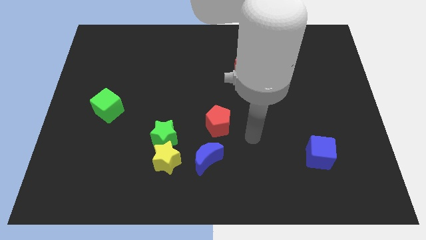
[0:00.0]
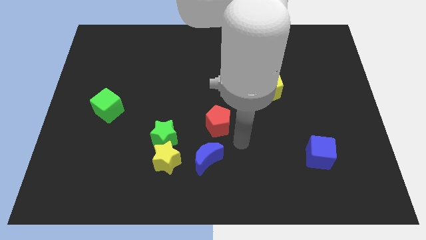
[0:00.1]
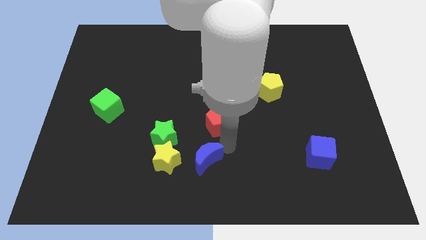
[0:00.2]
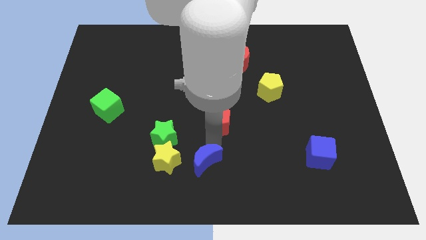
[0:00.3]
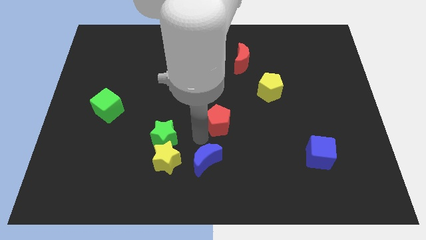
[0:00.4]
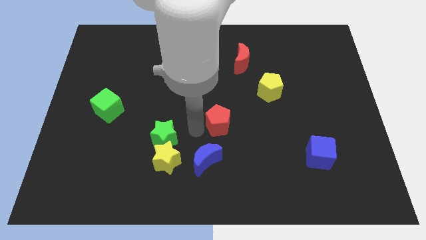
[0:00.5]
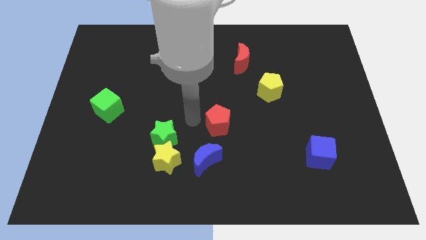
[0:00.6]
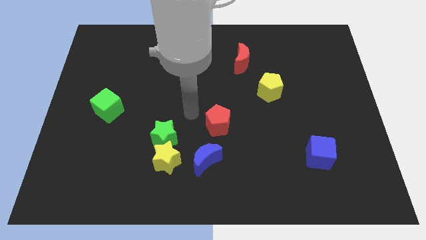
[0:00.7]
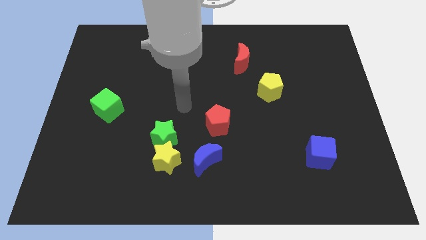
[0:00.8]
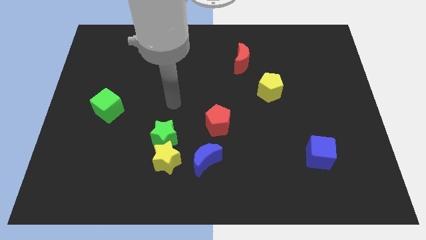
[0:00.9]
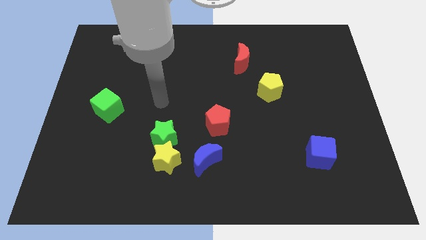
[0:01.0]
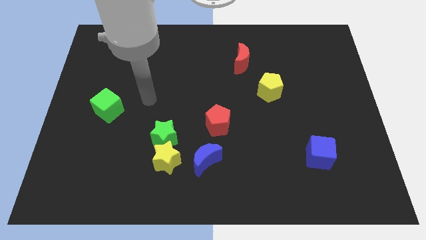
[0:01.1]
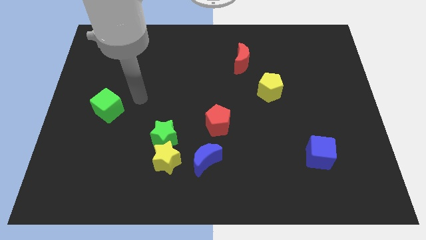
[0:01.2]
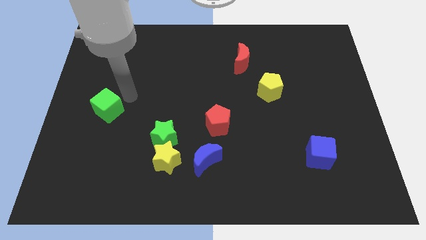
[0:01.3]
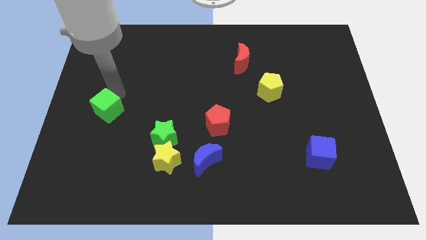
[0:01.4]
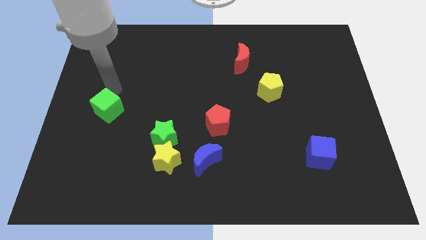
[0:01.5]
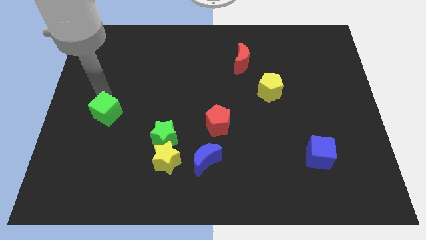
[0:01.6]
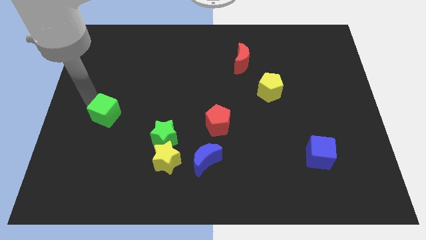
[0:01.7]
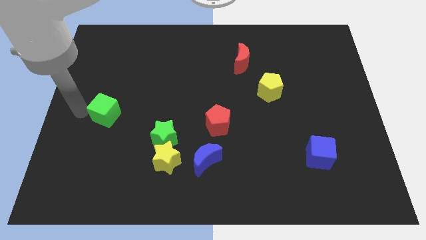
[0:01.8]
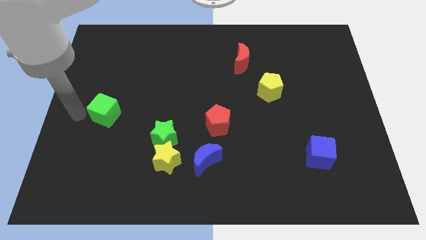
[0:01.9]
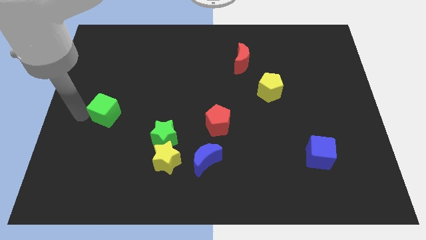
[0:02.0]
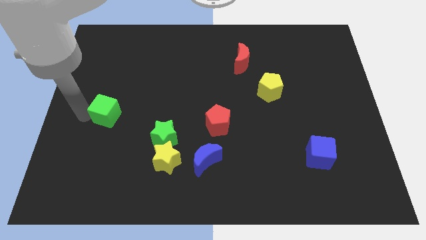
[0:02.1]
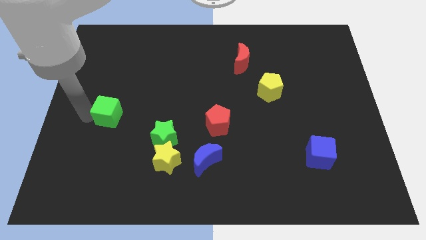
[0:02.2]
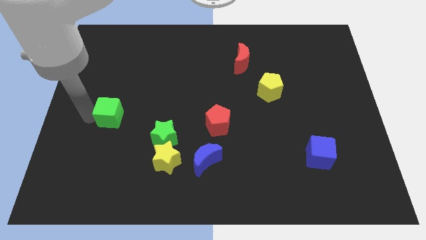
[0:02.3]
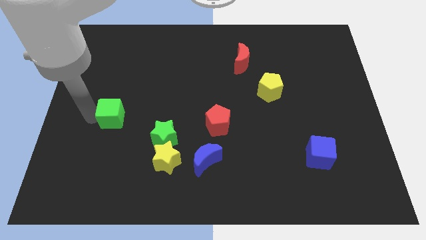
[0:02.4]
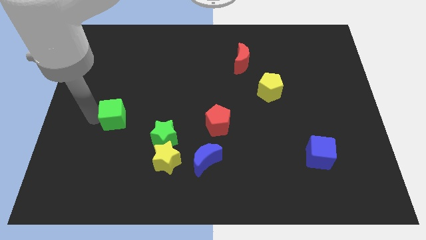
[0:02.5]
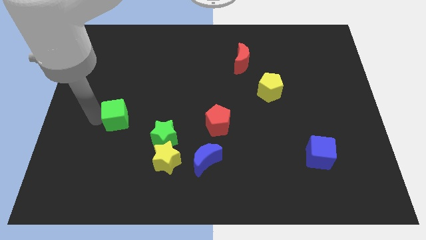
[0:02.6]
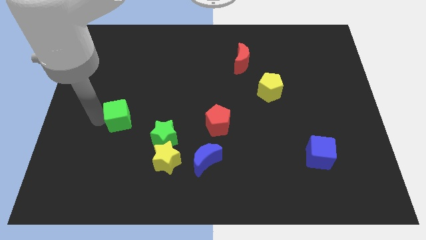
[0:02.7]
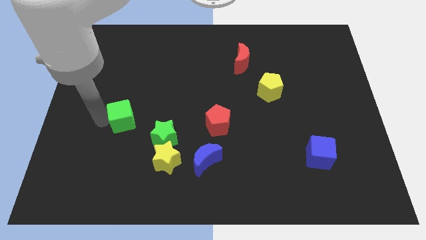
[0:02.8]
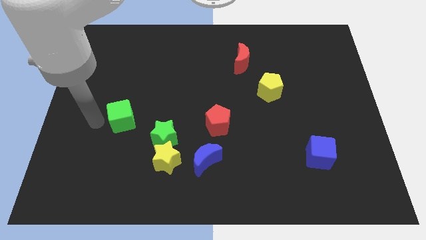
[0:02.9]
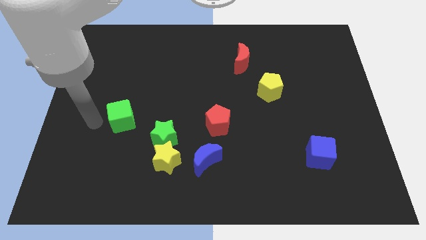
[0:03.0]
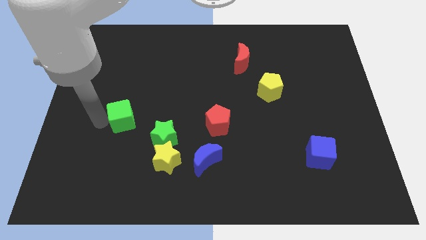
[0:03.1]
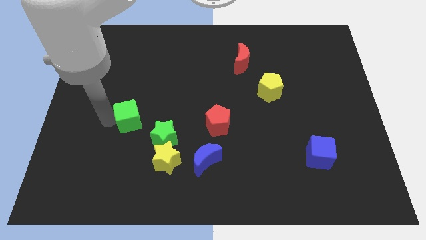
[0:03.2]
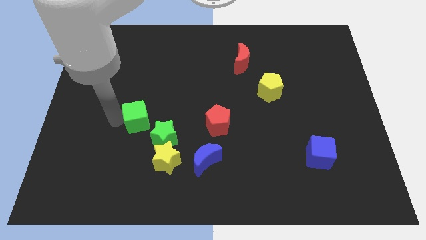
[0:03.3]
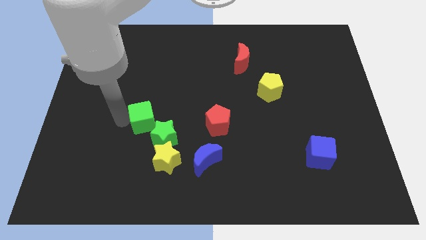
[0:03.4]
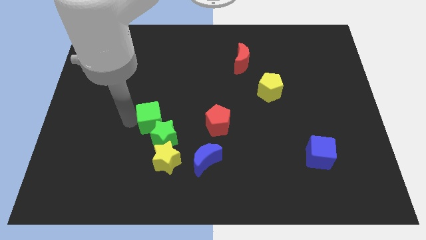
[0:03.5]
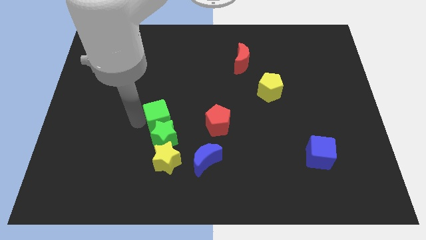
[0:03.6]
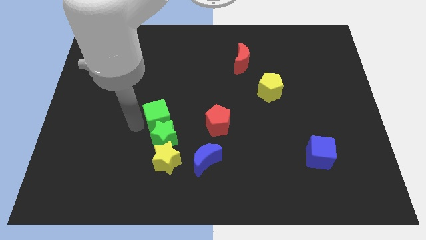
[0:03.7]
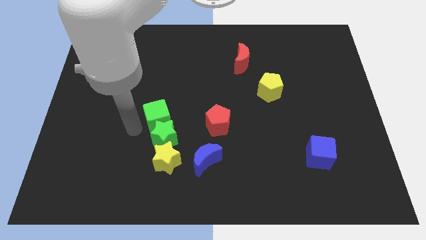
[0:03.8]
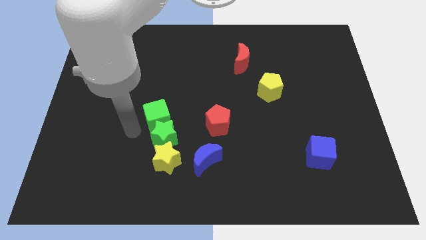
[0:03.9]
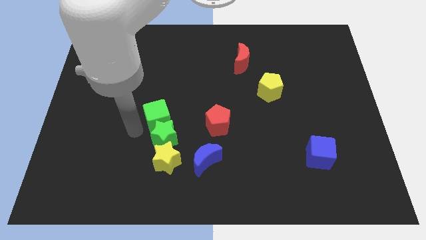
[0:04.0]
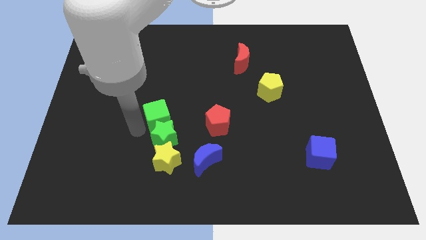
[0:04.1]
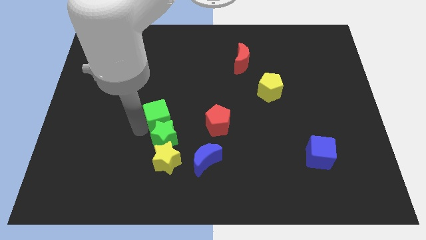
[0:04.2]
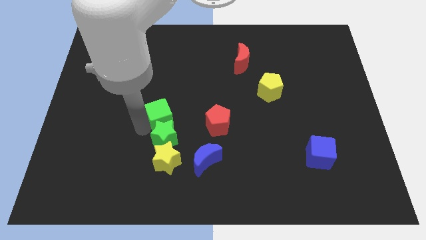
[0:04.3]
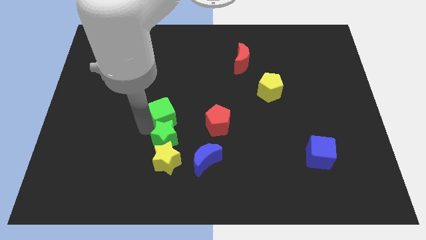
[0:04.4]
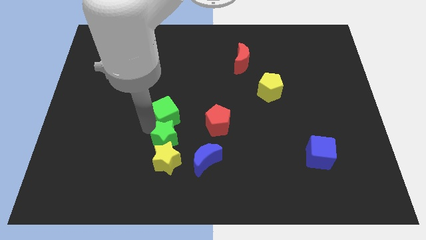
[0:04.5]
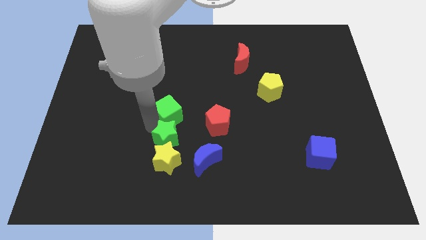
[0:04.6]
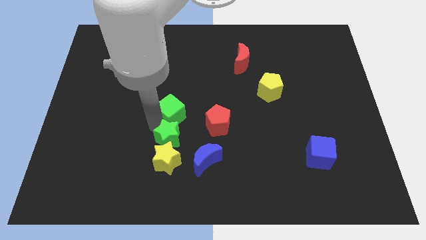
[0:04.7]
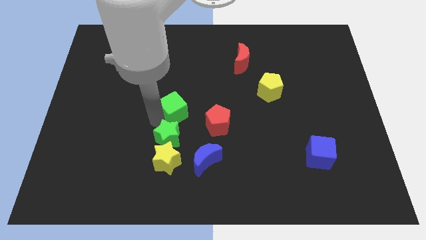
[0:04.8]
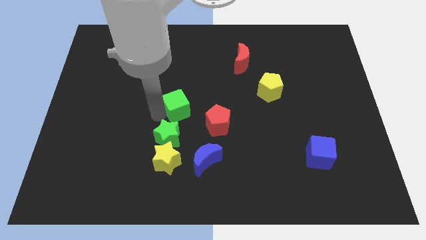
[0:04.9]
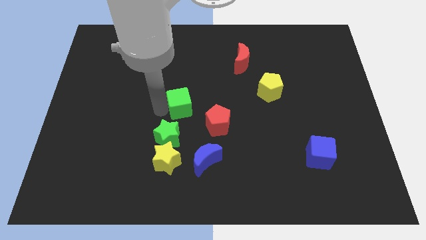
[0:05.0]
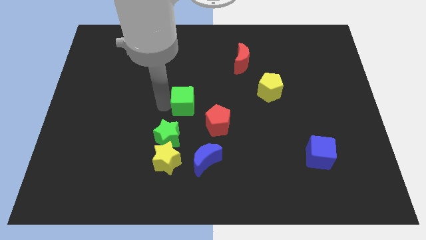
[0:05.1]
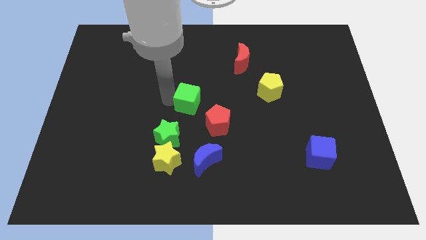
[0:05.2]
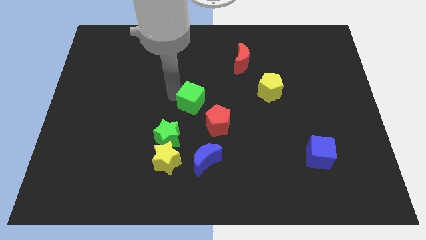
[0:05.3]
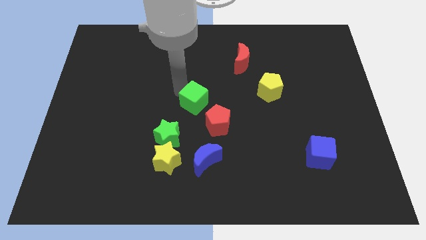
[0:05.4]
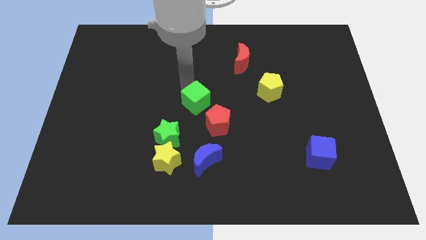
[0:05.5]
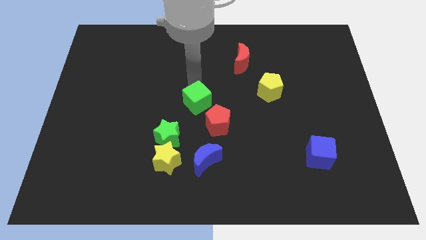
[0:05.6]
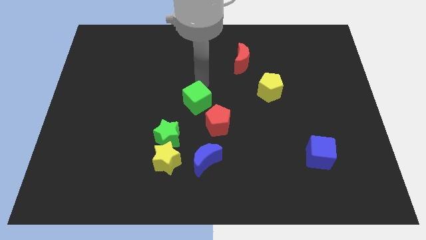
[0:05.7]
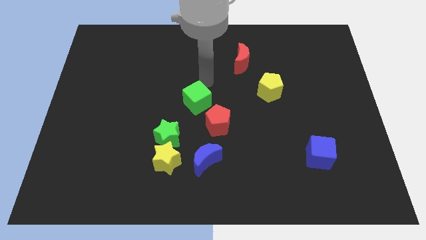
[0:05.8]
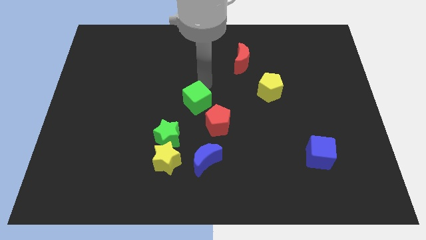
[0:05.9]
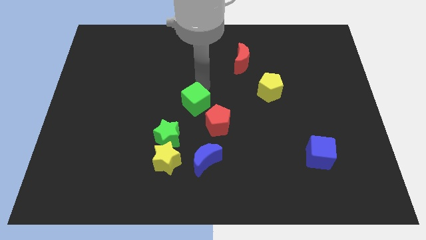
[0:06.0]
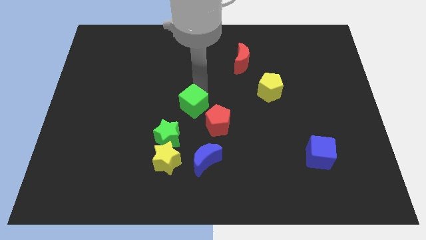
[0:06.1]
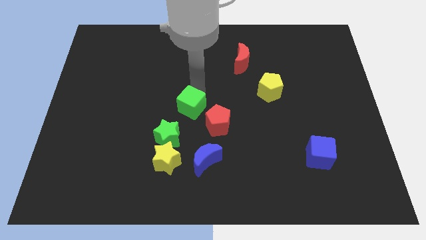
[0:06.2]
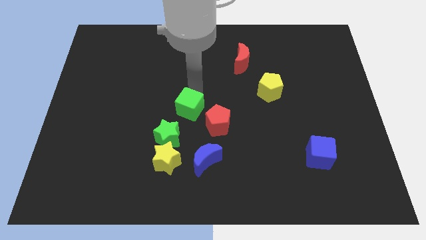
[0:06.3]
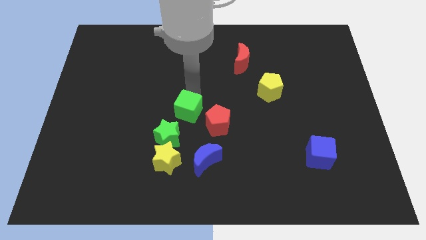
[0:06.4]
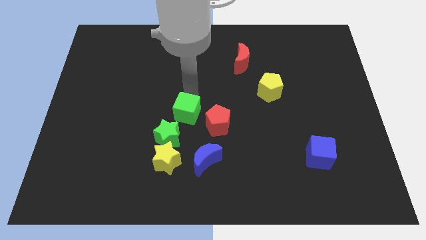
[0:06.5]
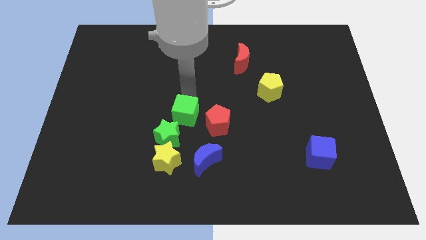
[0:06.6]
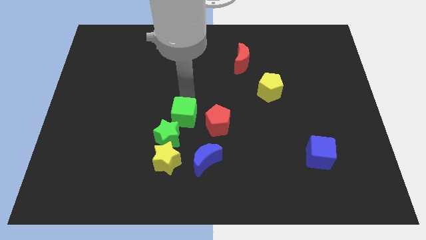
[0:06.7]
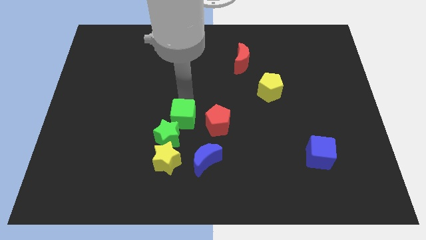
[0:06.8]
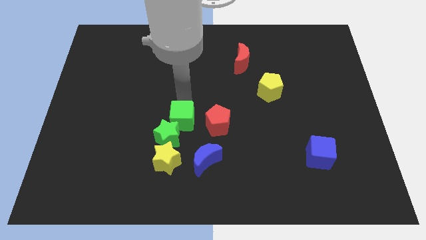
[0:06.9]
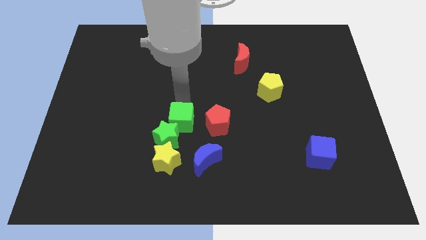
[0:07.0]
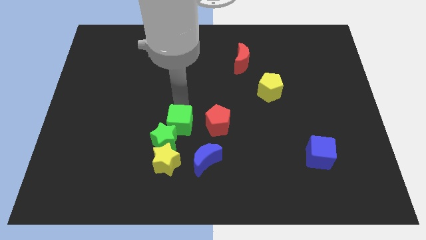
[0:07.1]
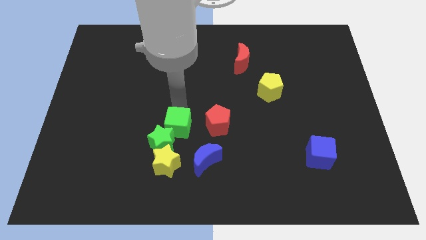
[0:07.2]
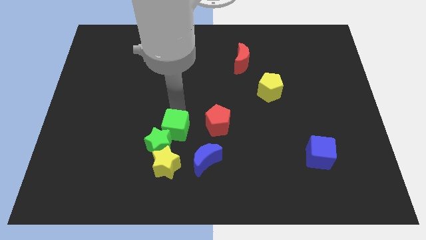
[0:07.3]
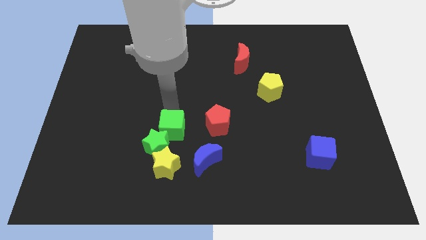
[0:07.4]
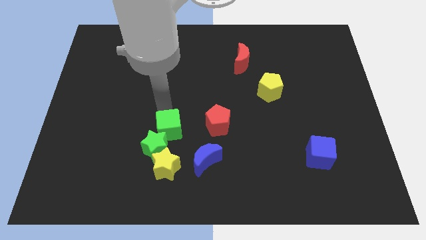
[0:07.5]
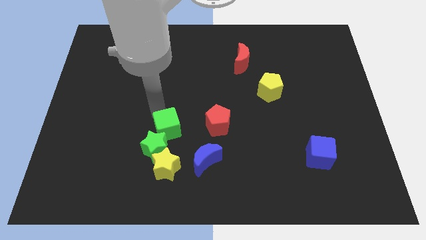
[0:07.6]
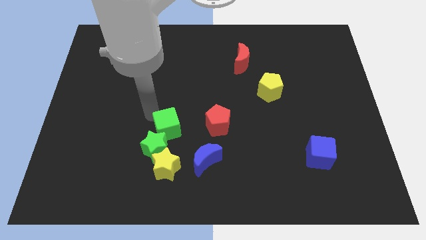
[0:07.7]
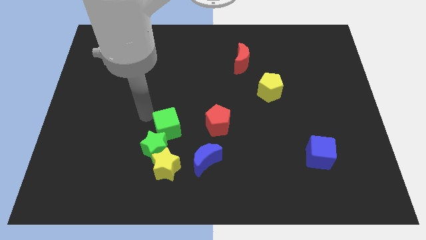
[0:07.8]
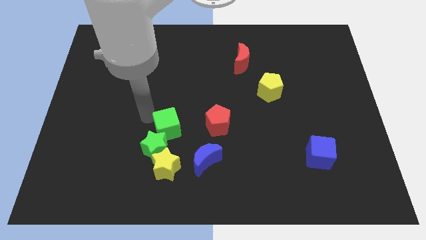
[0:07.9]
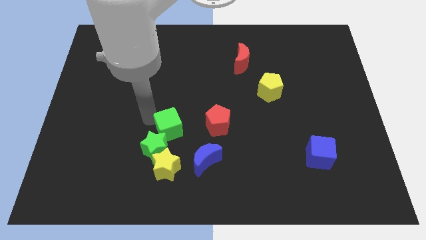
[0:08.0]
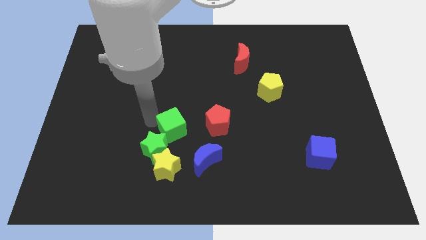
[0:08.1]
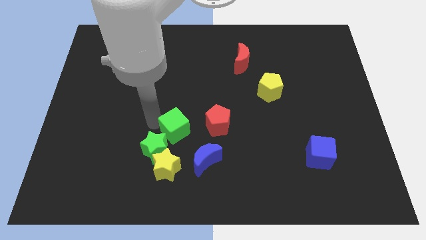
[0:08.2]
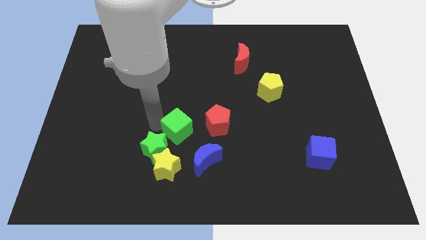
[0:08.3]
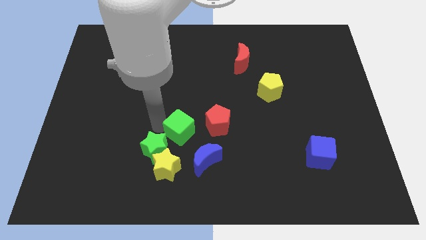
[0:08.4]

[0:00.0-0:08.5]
slide the green cube to the bottom left side of the red pentagon
